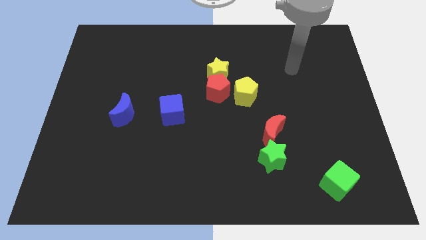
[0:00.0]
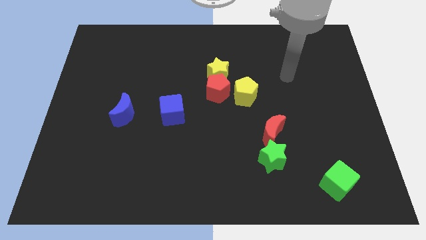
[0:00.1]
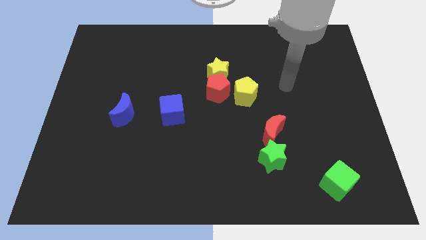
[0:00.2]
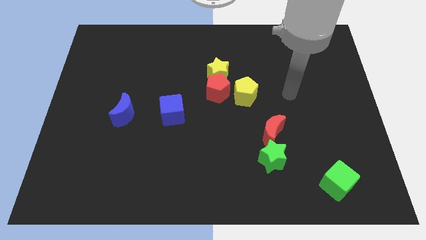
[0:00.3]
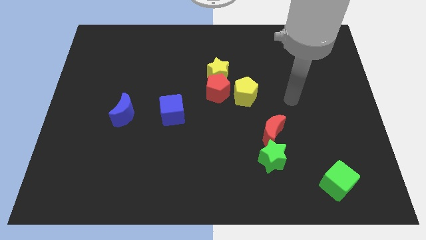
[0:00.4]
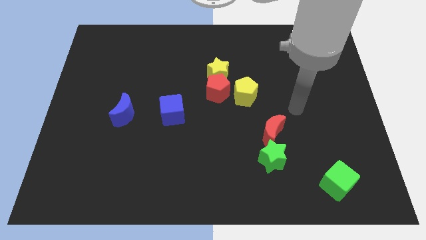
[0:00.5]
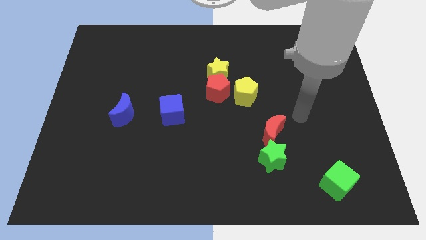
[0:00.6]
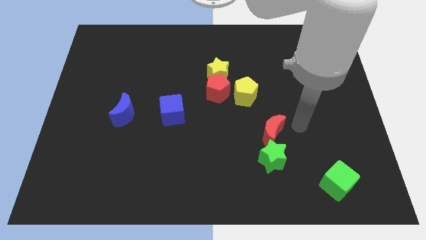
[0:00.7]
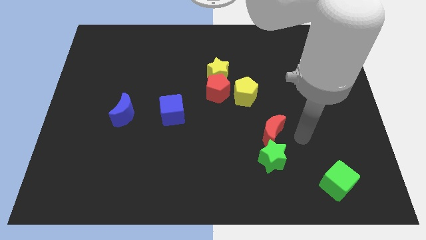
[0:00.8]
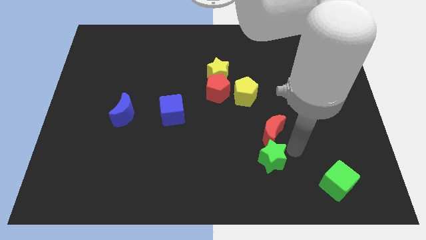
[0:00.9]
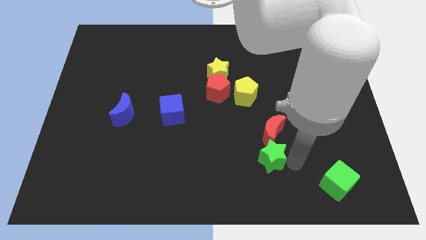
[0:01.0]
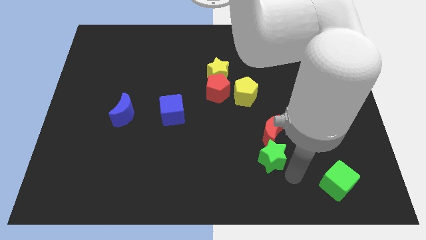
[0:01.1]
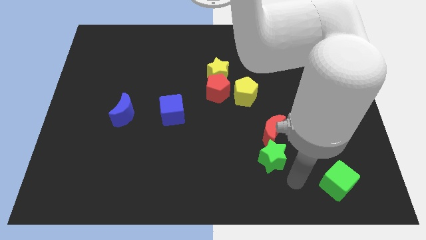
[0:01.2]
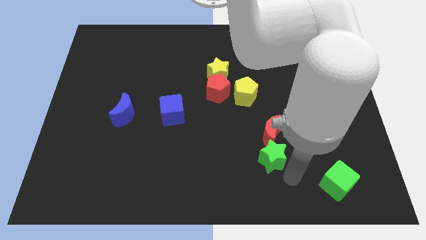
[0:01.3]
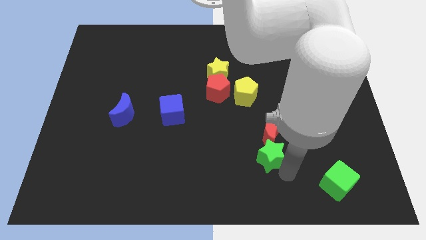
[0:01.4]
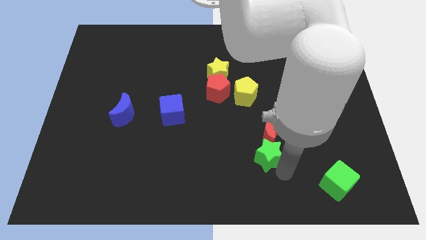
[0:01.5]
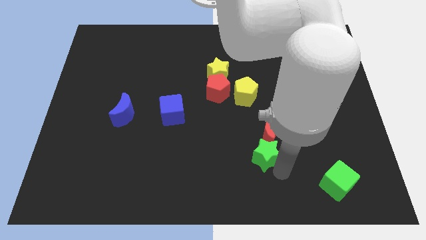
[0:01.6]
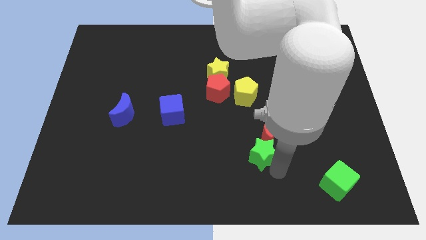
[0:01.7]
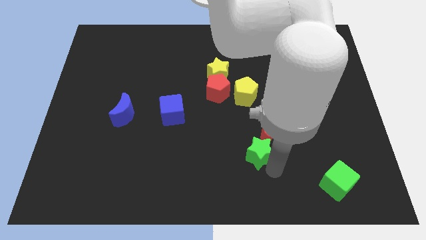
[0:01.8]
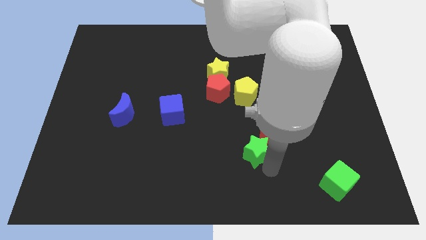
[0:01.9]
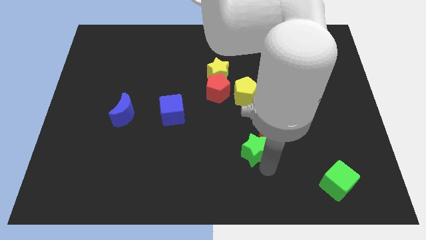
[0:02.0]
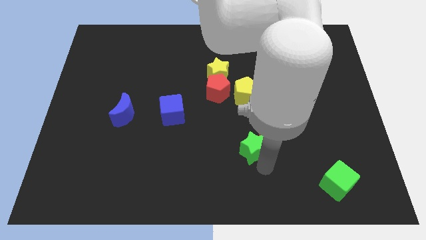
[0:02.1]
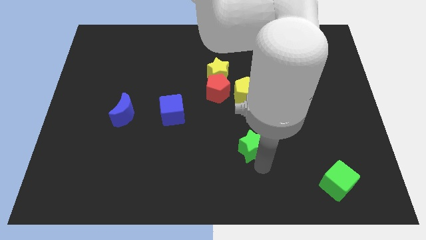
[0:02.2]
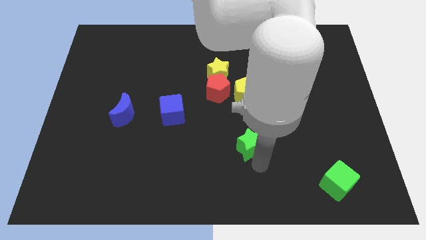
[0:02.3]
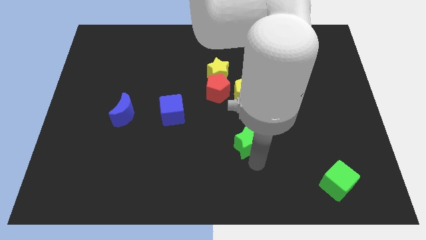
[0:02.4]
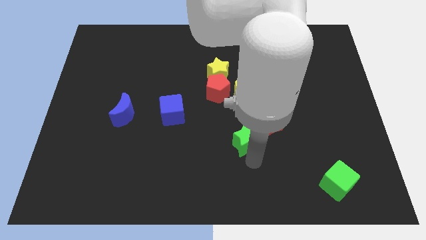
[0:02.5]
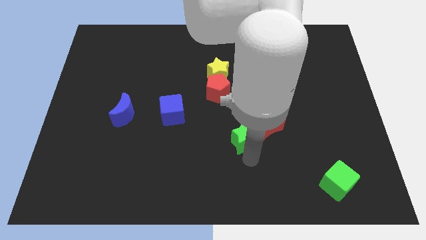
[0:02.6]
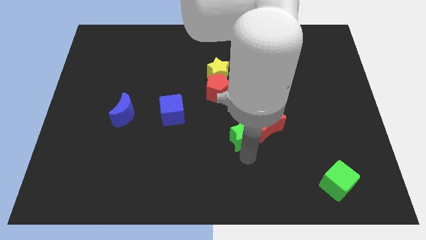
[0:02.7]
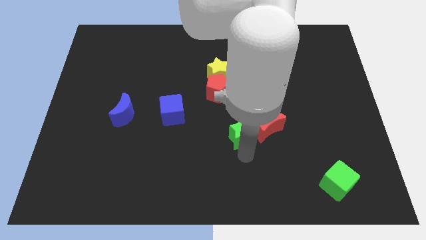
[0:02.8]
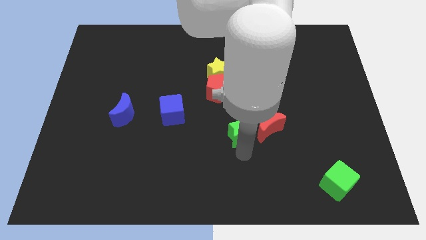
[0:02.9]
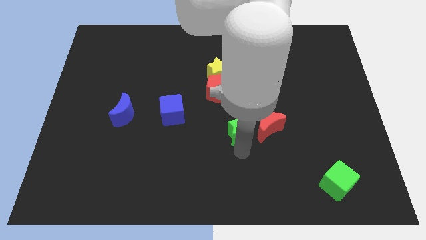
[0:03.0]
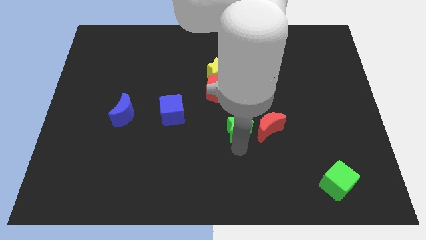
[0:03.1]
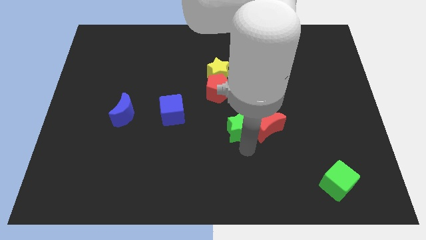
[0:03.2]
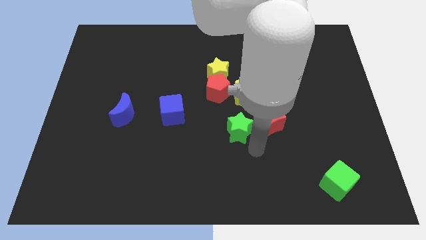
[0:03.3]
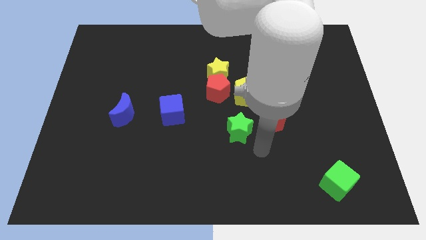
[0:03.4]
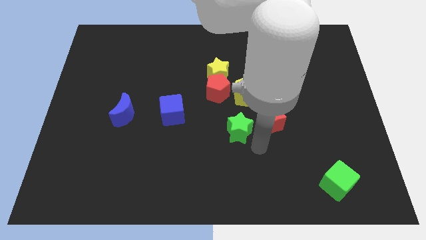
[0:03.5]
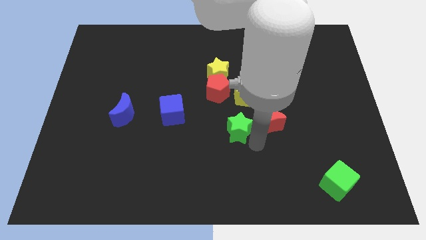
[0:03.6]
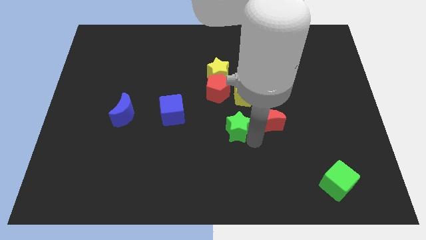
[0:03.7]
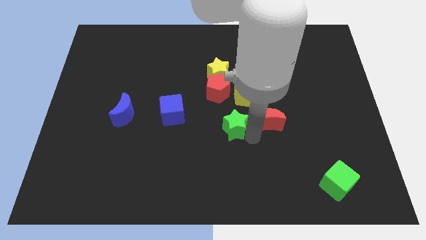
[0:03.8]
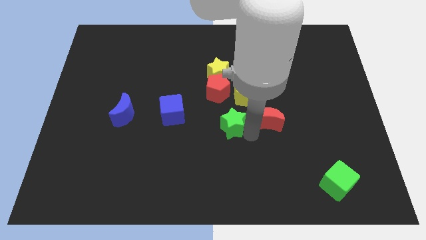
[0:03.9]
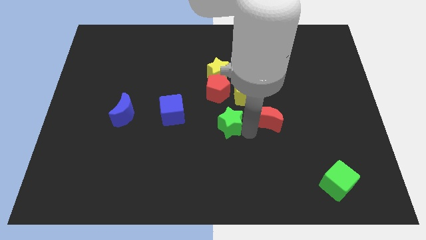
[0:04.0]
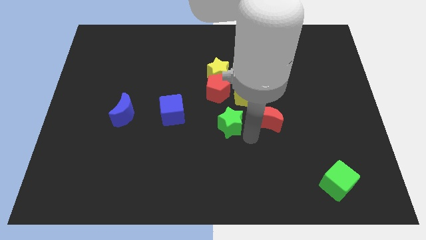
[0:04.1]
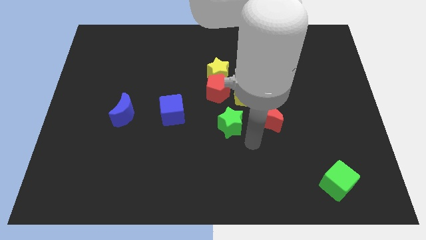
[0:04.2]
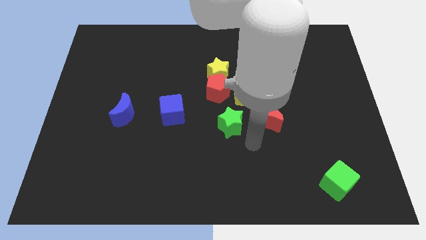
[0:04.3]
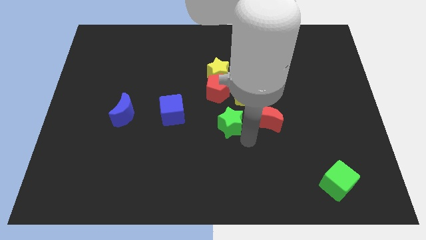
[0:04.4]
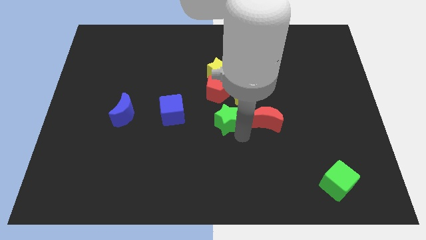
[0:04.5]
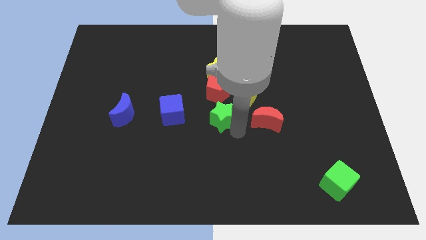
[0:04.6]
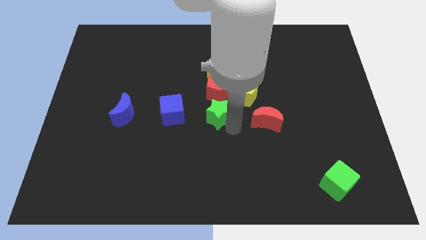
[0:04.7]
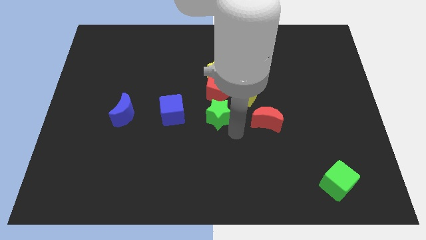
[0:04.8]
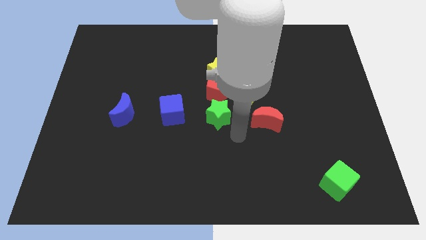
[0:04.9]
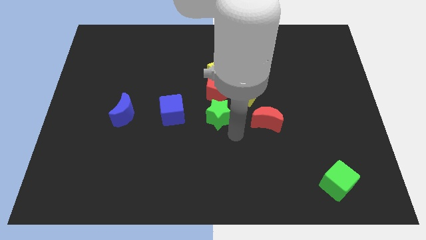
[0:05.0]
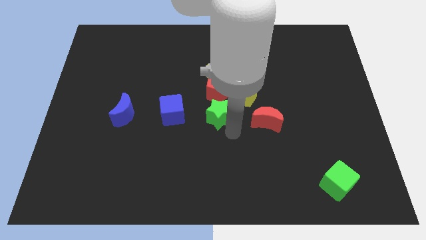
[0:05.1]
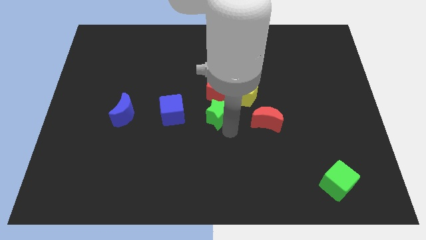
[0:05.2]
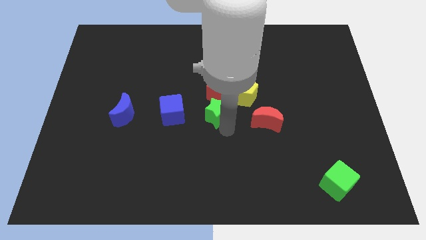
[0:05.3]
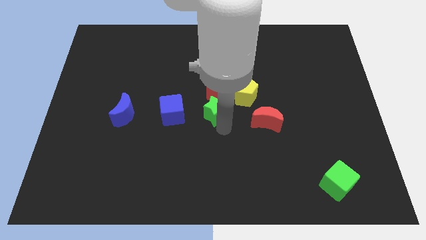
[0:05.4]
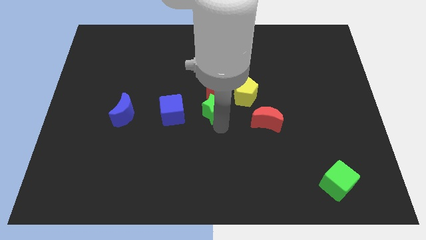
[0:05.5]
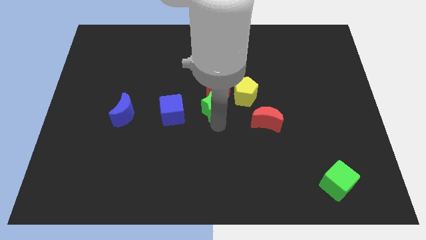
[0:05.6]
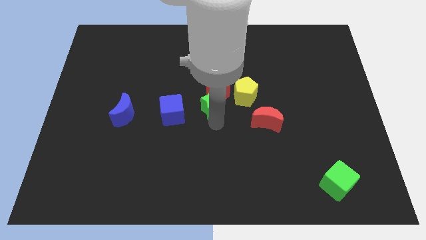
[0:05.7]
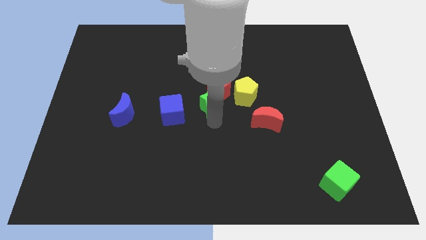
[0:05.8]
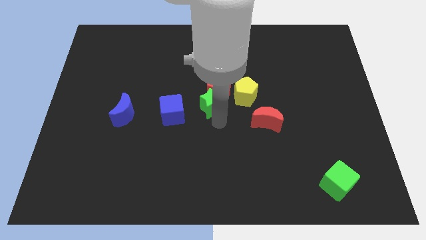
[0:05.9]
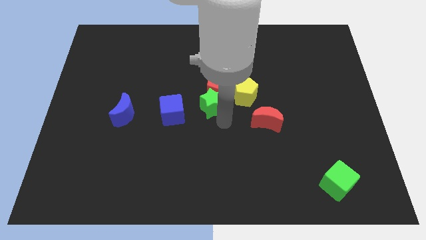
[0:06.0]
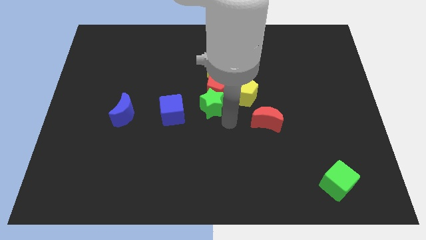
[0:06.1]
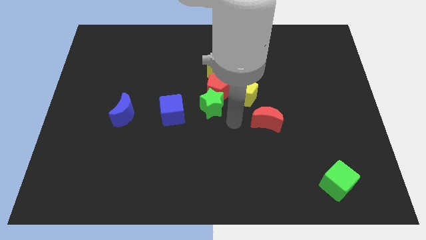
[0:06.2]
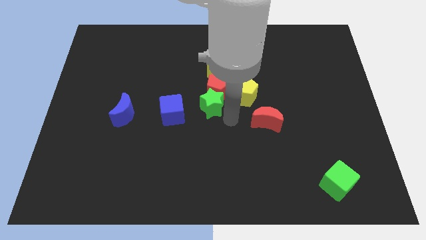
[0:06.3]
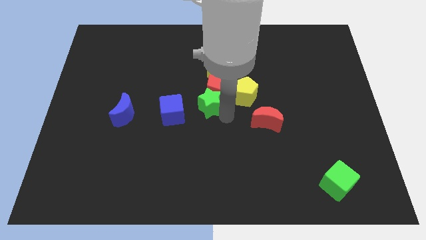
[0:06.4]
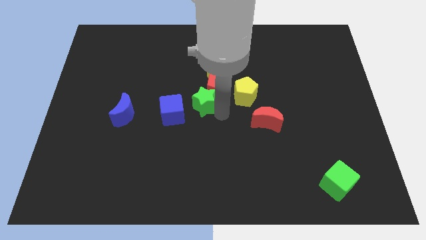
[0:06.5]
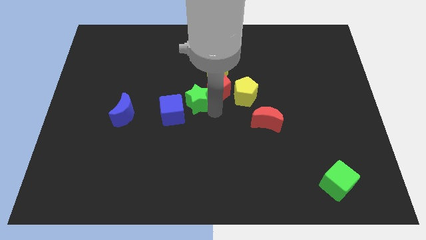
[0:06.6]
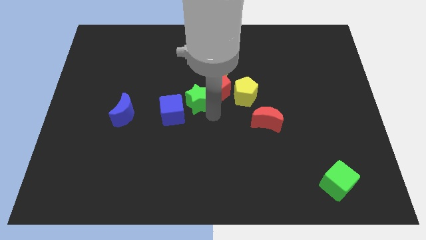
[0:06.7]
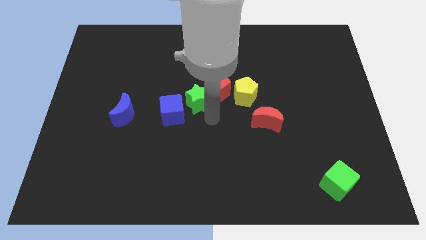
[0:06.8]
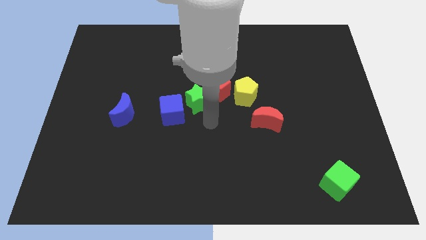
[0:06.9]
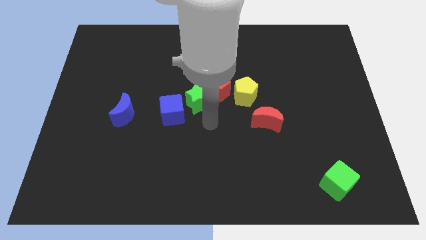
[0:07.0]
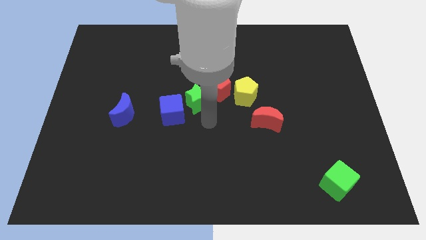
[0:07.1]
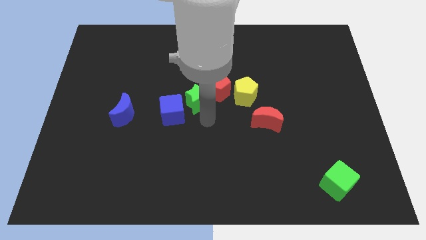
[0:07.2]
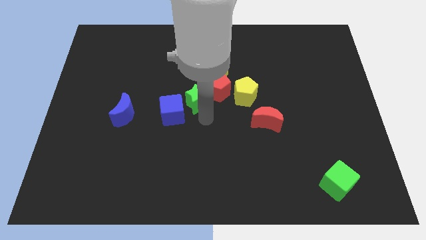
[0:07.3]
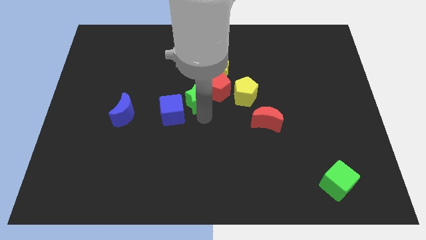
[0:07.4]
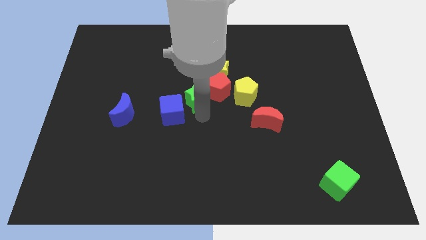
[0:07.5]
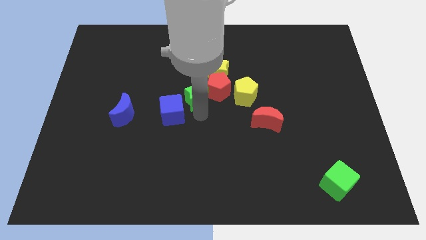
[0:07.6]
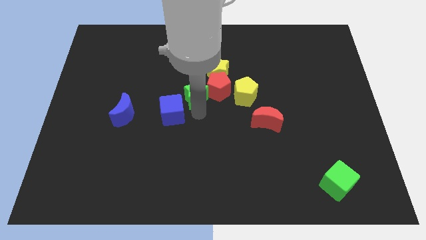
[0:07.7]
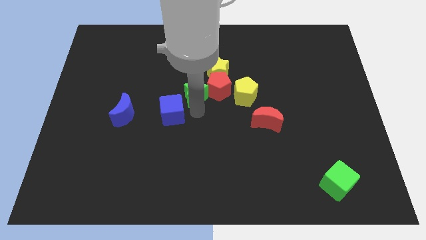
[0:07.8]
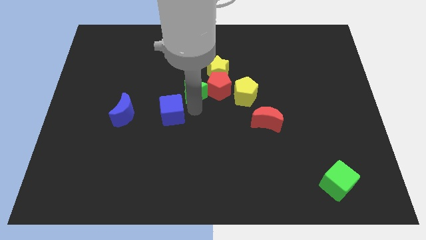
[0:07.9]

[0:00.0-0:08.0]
push the green star to the top side of the blue cube
